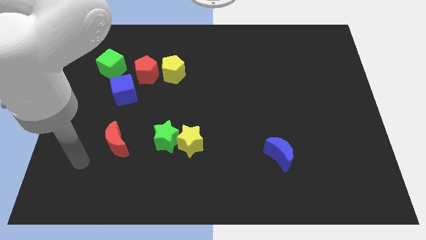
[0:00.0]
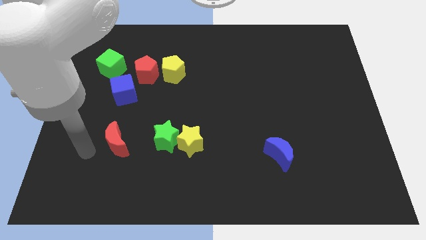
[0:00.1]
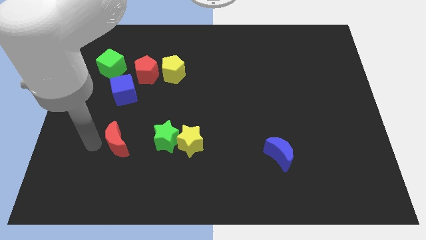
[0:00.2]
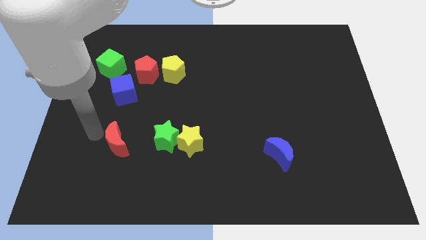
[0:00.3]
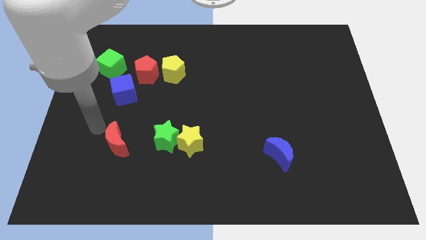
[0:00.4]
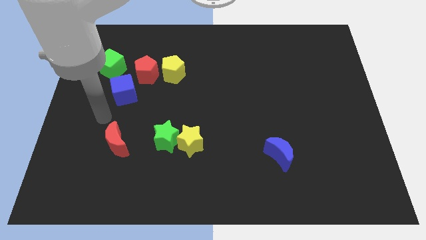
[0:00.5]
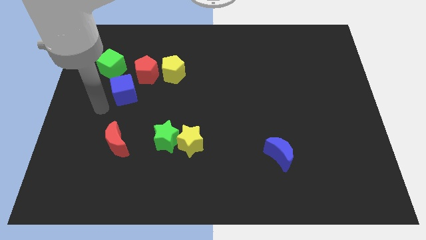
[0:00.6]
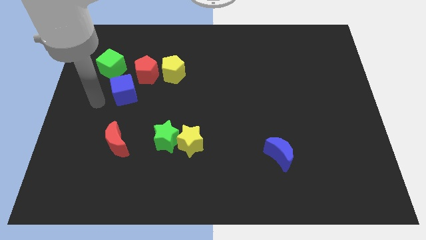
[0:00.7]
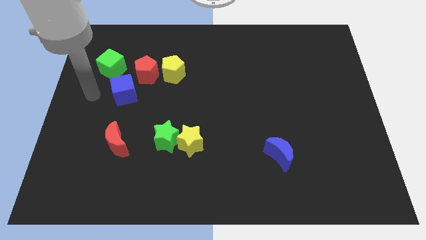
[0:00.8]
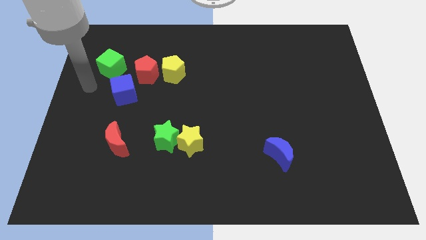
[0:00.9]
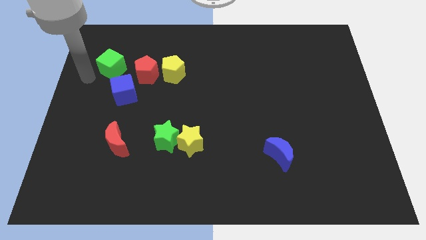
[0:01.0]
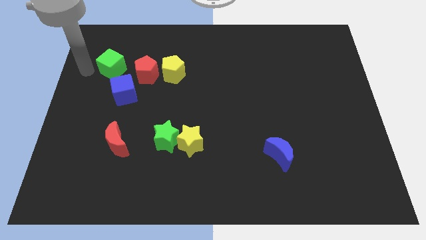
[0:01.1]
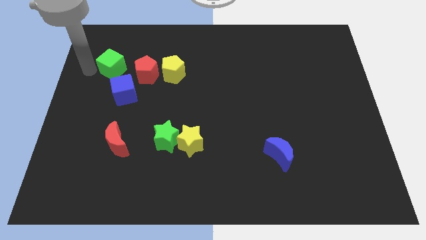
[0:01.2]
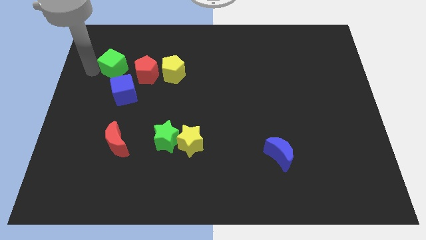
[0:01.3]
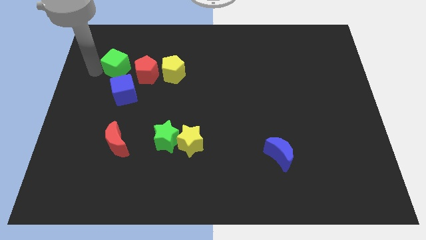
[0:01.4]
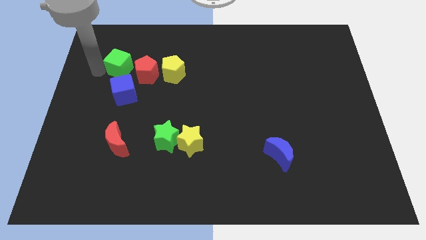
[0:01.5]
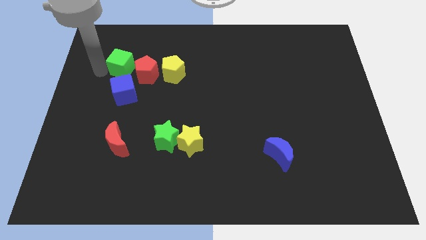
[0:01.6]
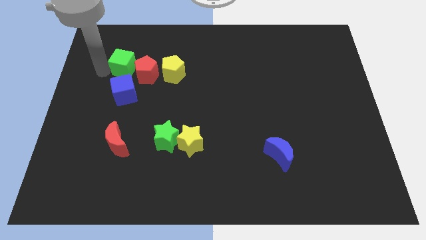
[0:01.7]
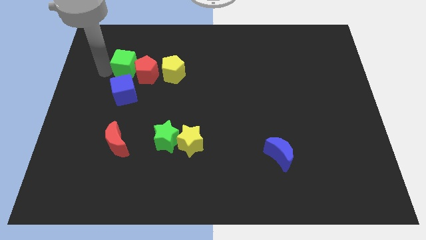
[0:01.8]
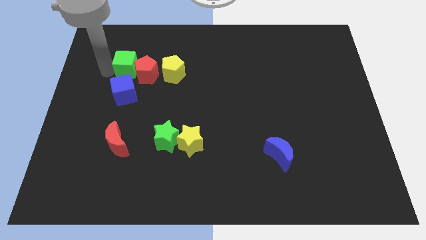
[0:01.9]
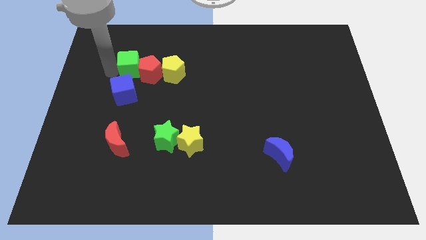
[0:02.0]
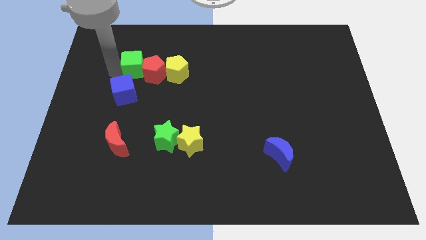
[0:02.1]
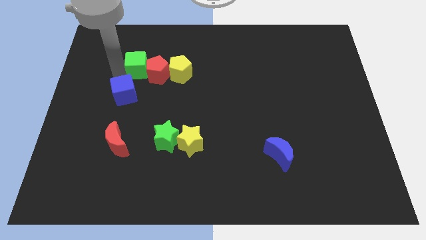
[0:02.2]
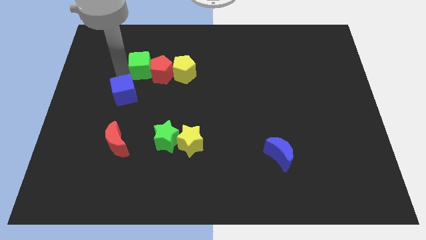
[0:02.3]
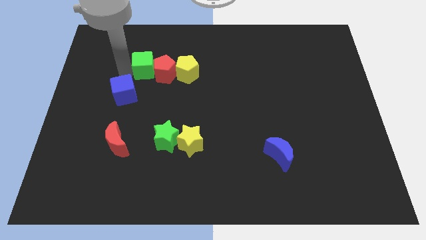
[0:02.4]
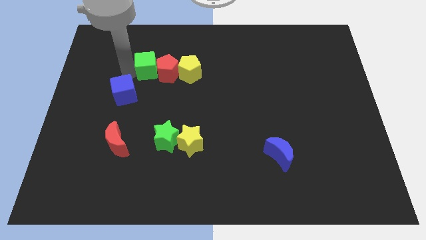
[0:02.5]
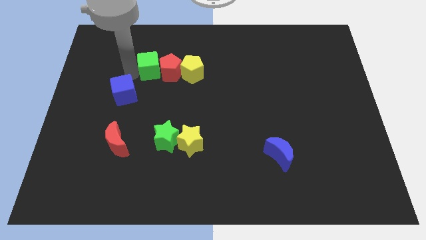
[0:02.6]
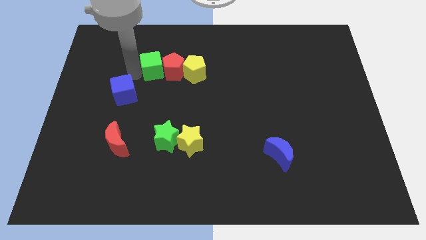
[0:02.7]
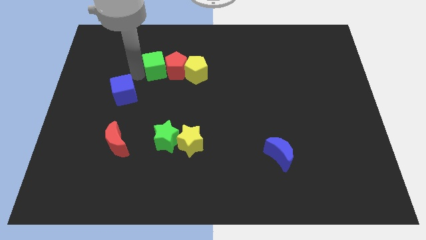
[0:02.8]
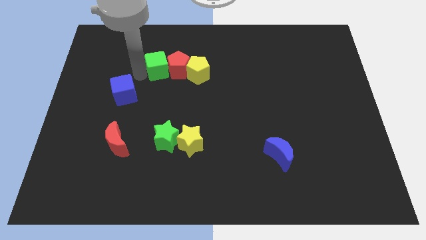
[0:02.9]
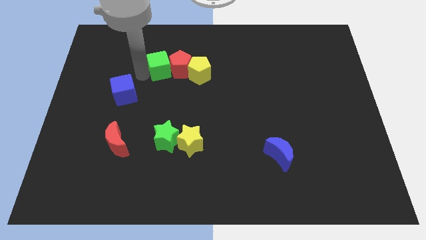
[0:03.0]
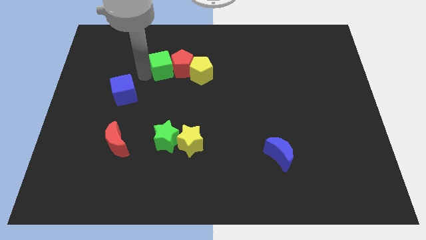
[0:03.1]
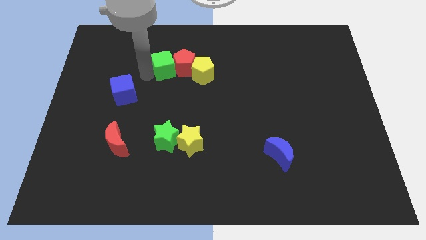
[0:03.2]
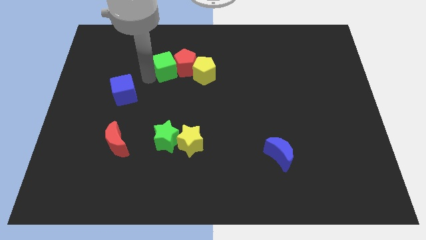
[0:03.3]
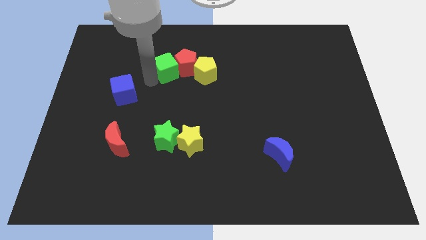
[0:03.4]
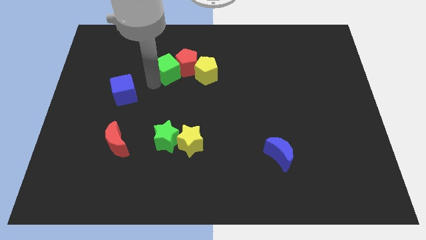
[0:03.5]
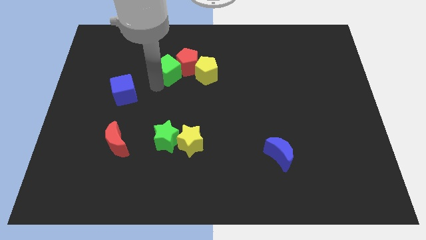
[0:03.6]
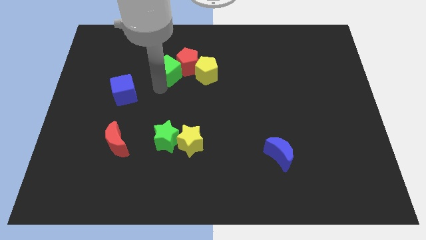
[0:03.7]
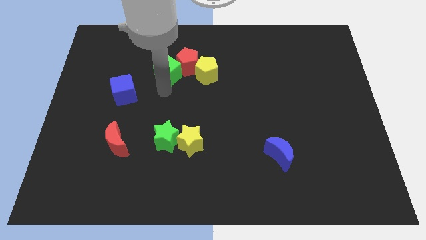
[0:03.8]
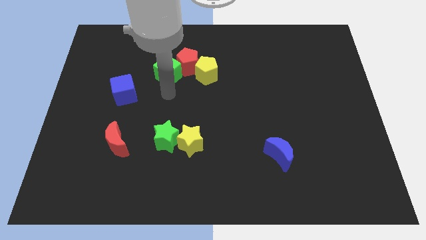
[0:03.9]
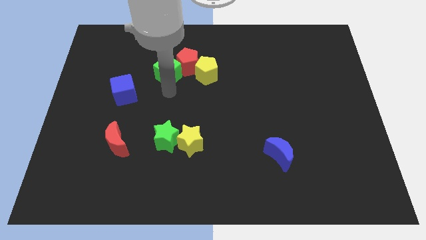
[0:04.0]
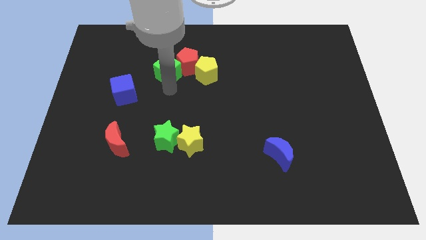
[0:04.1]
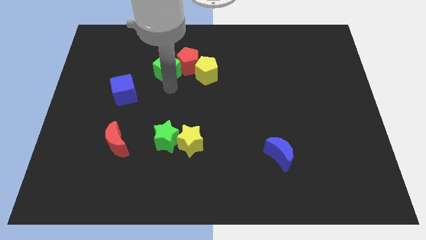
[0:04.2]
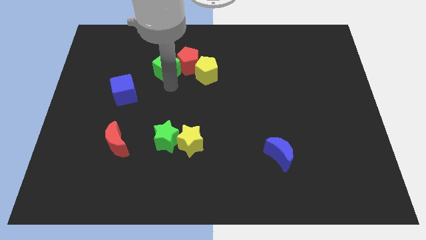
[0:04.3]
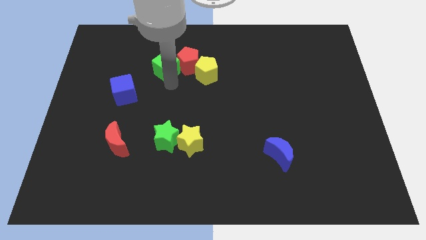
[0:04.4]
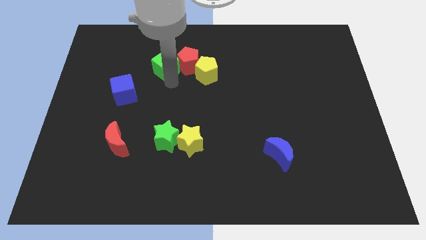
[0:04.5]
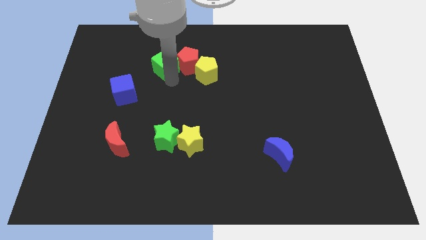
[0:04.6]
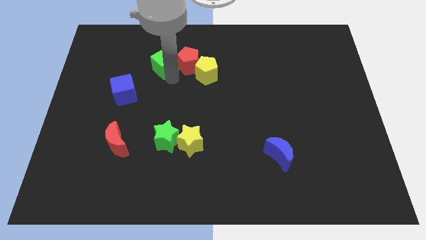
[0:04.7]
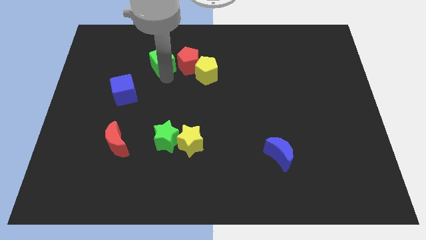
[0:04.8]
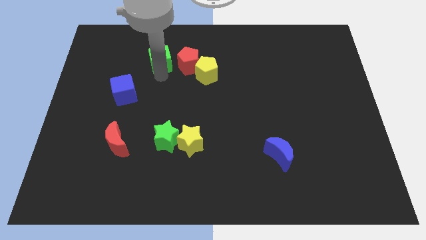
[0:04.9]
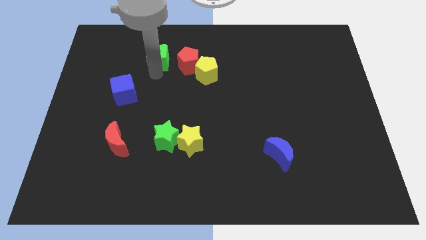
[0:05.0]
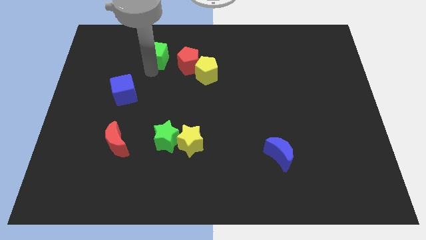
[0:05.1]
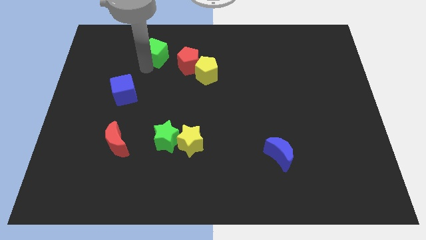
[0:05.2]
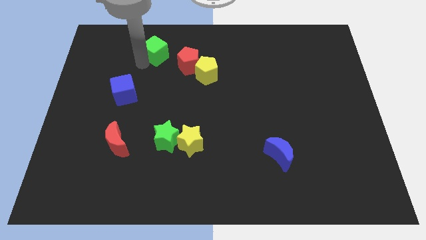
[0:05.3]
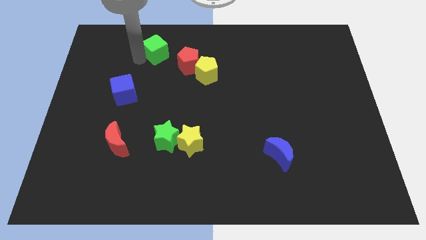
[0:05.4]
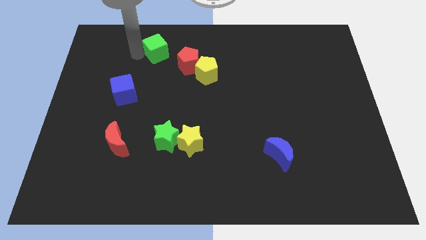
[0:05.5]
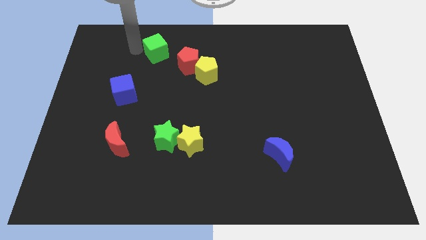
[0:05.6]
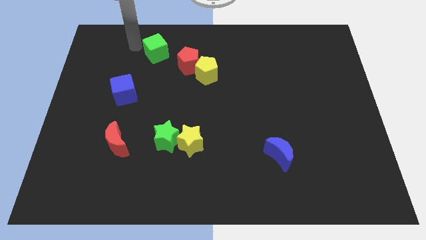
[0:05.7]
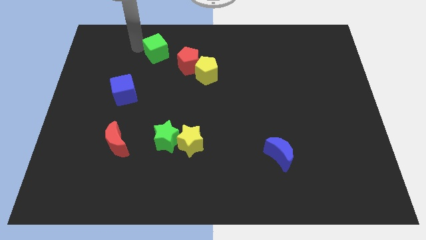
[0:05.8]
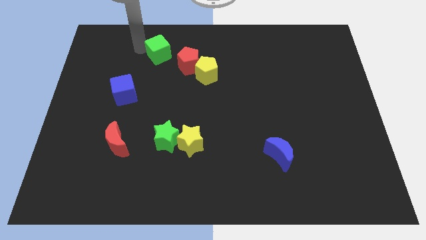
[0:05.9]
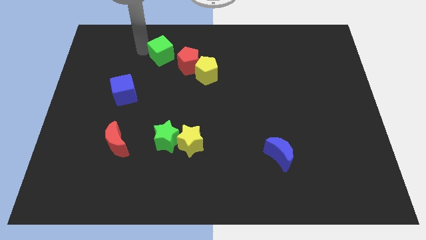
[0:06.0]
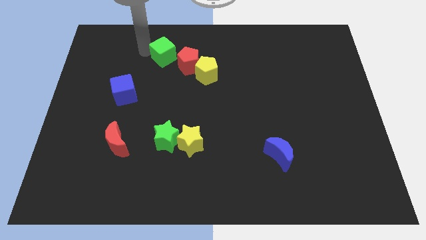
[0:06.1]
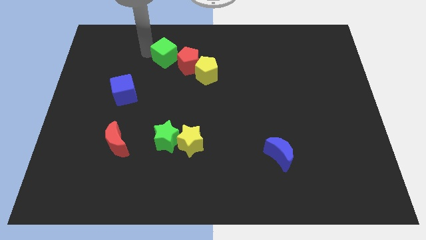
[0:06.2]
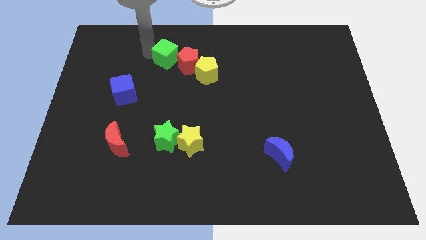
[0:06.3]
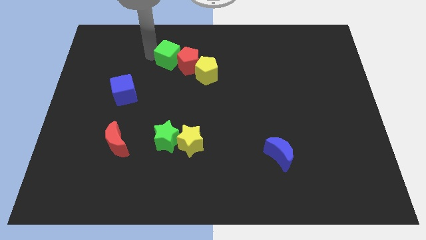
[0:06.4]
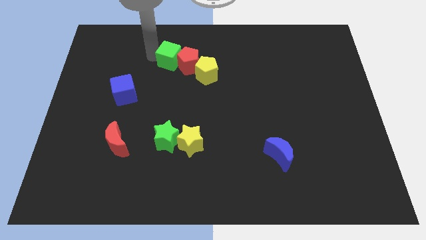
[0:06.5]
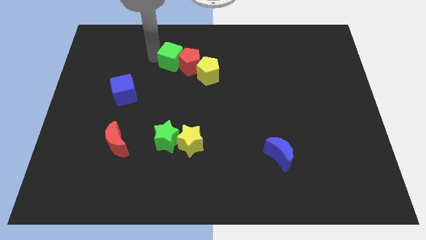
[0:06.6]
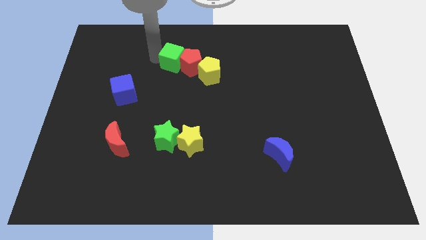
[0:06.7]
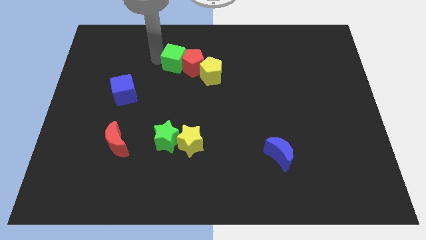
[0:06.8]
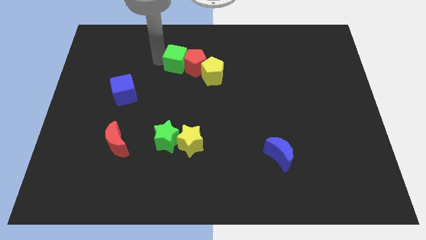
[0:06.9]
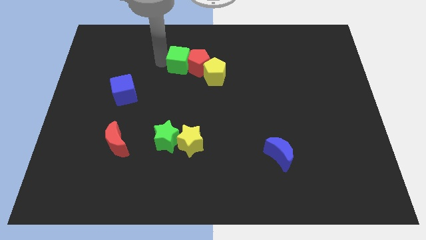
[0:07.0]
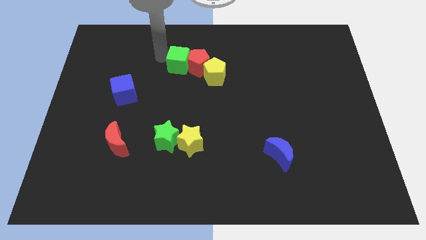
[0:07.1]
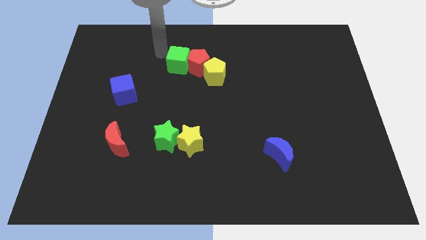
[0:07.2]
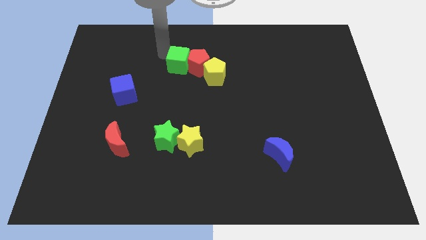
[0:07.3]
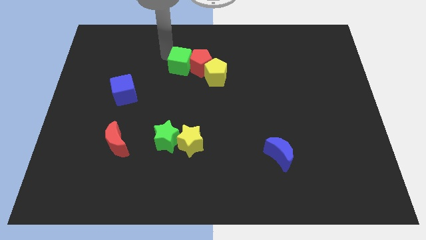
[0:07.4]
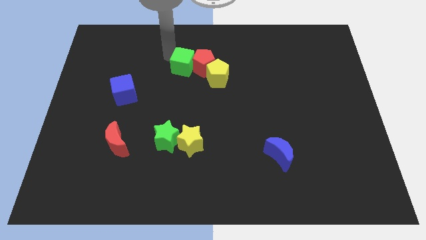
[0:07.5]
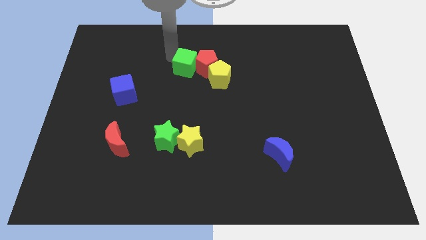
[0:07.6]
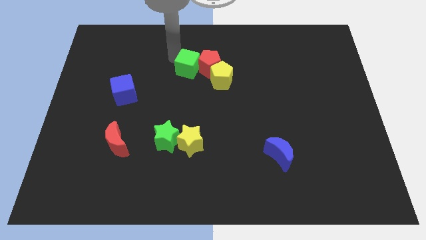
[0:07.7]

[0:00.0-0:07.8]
push the green cube to the center of the board
